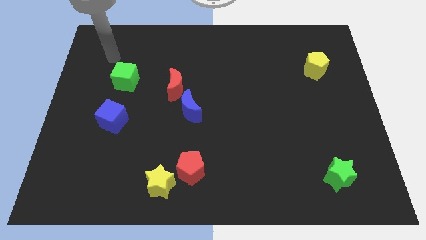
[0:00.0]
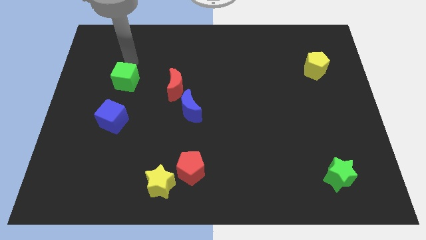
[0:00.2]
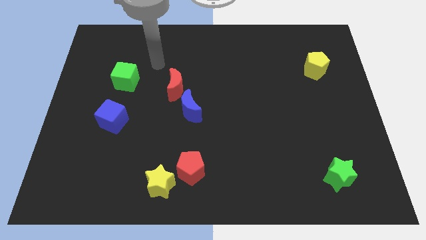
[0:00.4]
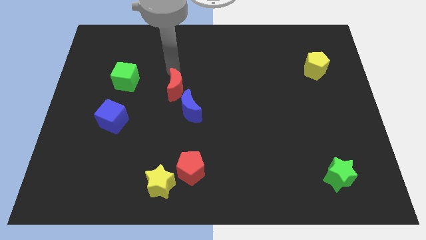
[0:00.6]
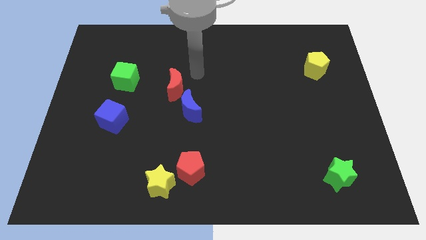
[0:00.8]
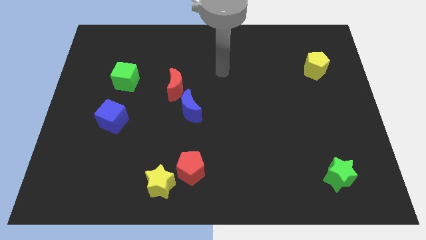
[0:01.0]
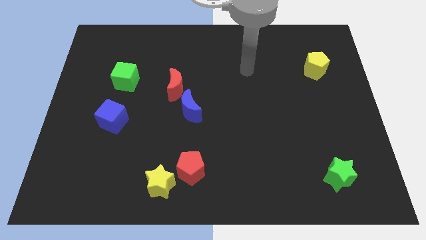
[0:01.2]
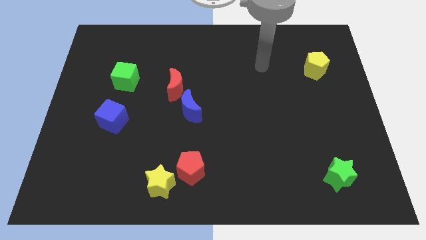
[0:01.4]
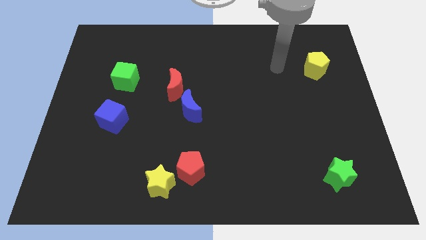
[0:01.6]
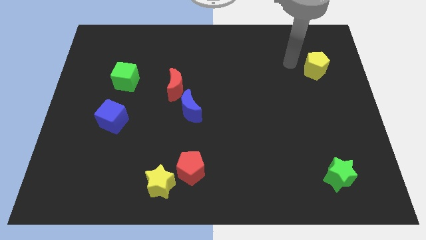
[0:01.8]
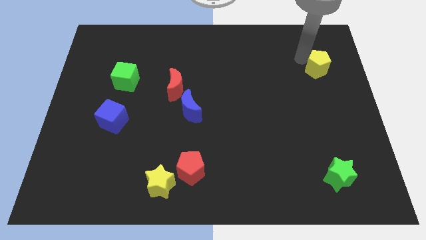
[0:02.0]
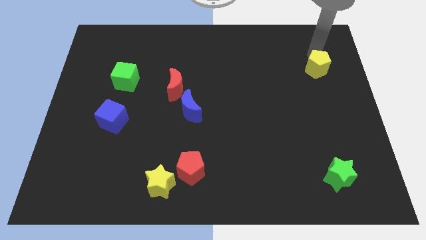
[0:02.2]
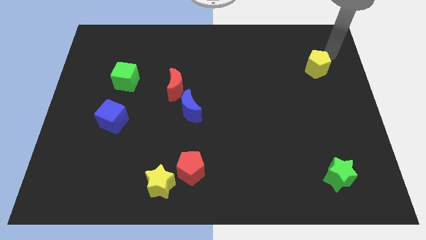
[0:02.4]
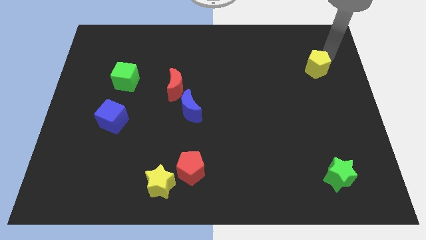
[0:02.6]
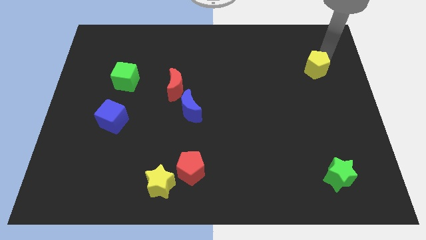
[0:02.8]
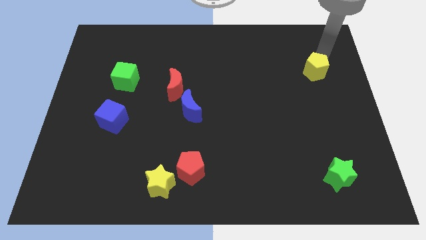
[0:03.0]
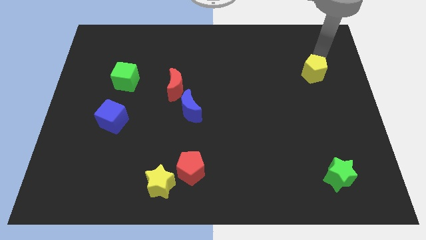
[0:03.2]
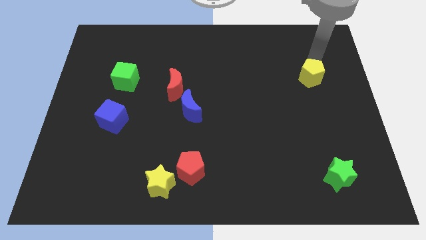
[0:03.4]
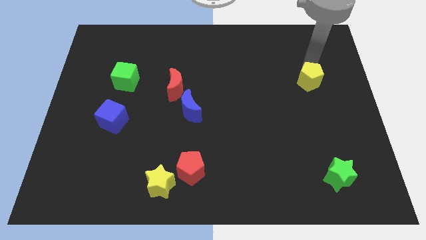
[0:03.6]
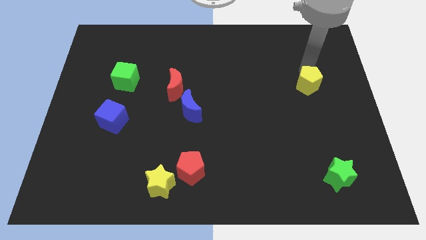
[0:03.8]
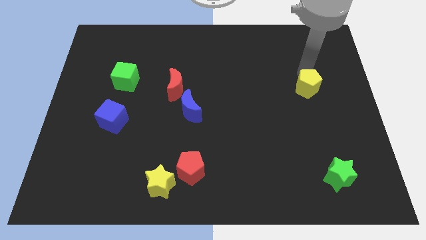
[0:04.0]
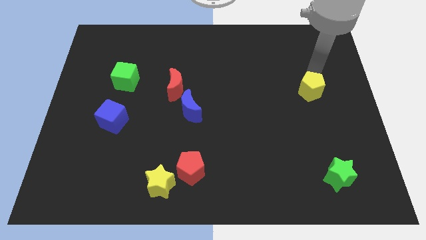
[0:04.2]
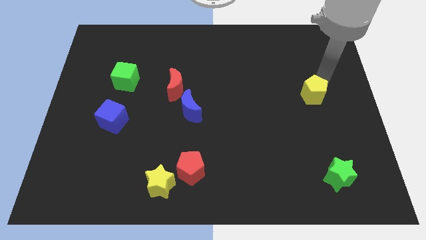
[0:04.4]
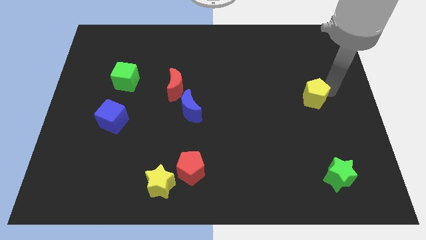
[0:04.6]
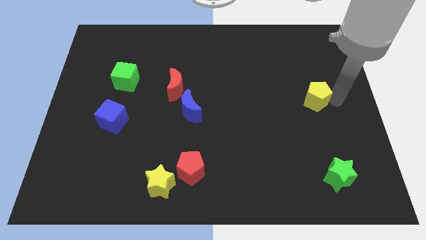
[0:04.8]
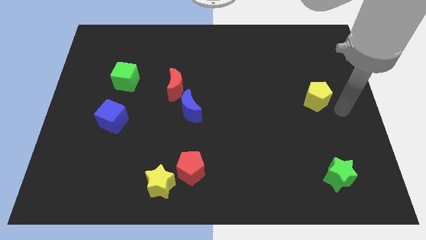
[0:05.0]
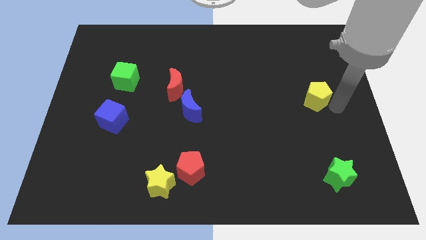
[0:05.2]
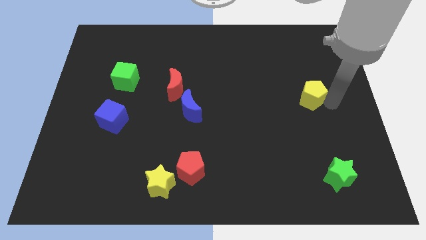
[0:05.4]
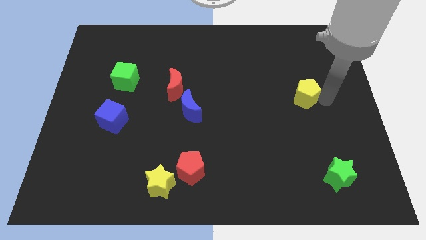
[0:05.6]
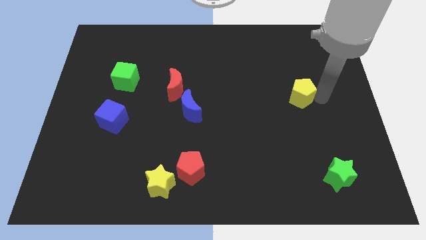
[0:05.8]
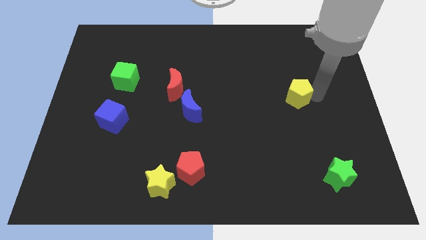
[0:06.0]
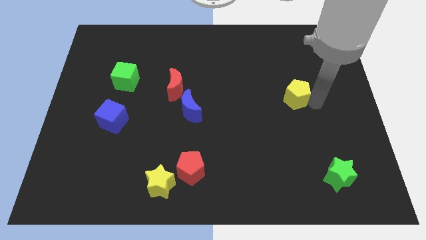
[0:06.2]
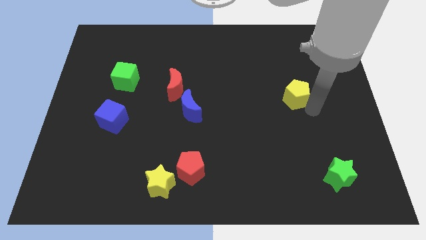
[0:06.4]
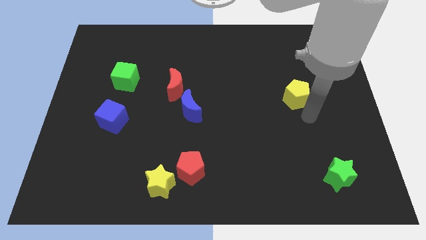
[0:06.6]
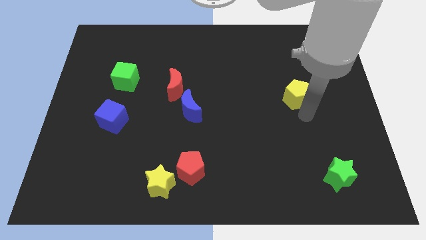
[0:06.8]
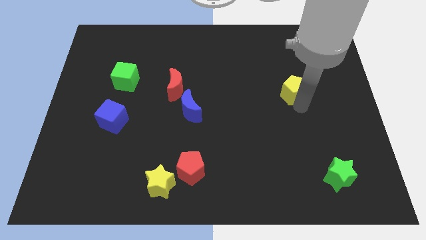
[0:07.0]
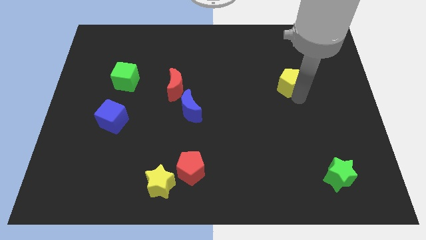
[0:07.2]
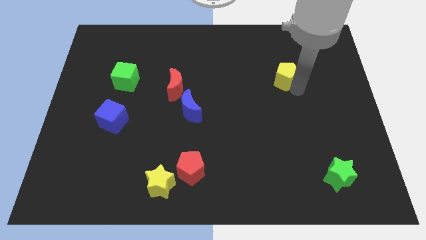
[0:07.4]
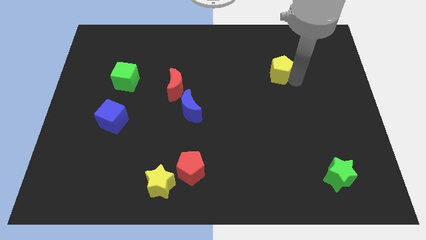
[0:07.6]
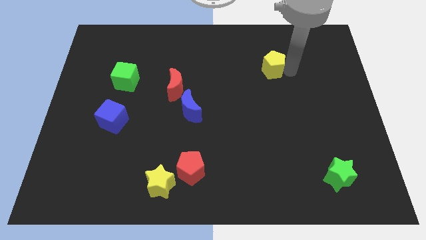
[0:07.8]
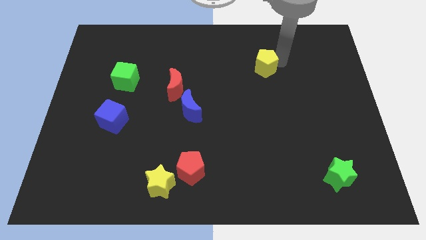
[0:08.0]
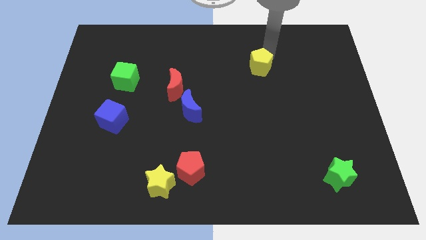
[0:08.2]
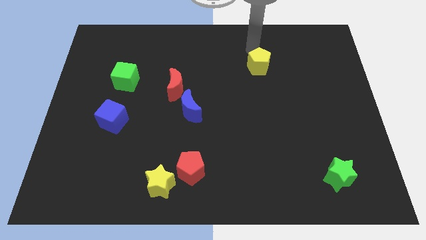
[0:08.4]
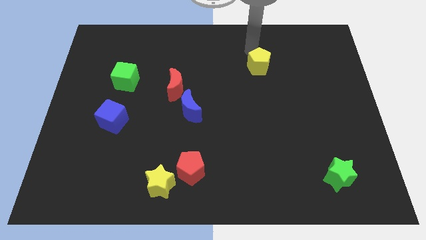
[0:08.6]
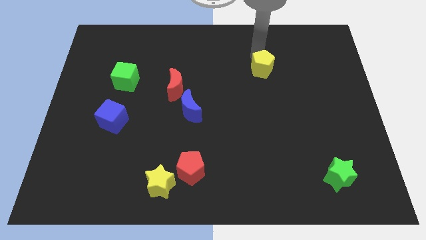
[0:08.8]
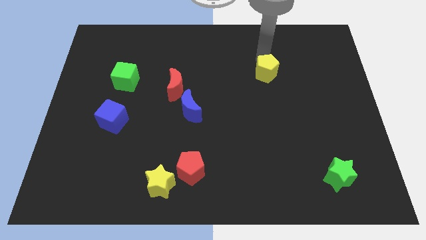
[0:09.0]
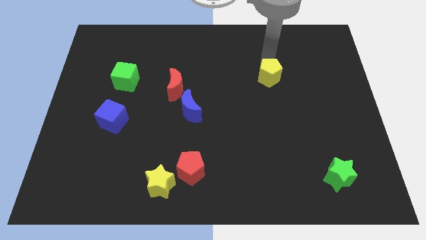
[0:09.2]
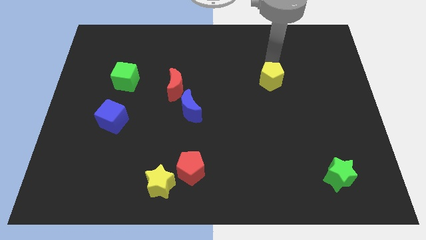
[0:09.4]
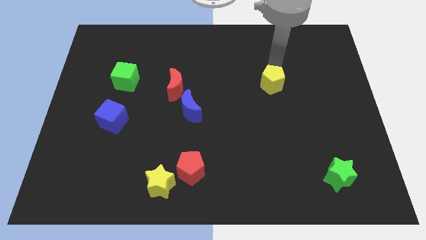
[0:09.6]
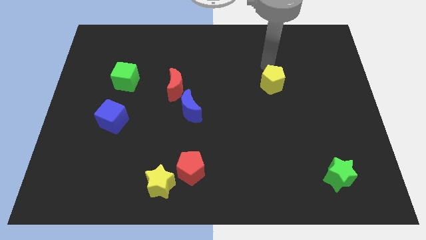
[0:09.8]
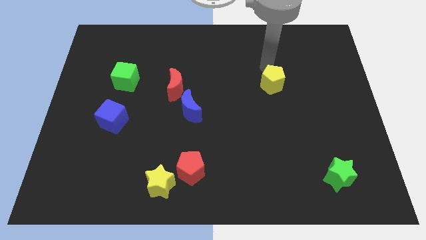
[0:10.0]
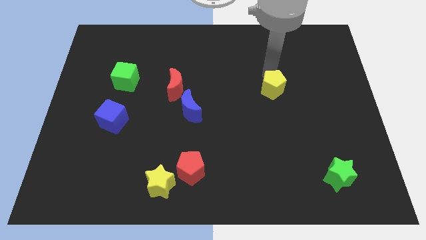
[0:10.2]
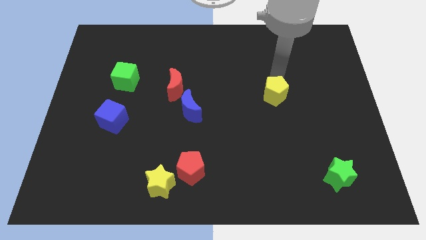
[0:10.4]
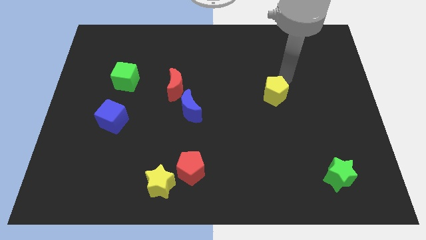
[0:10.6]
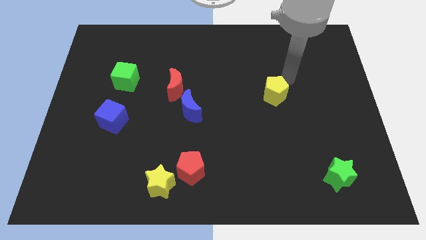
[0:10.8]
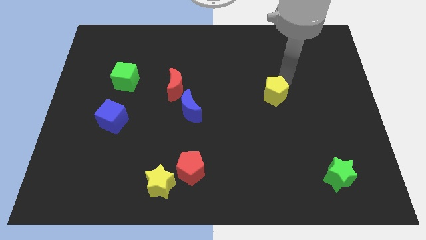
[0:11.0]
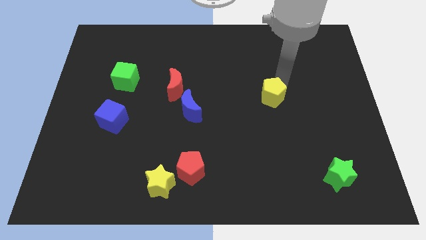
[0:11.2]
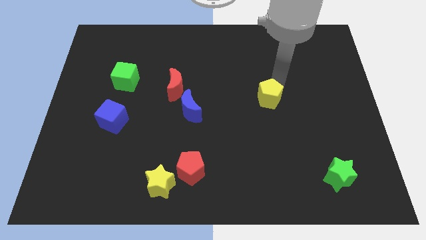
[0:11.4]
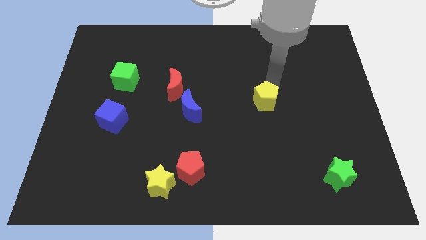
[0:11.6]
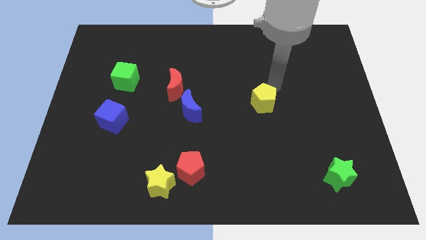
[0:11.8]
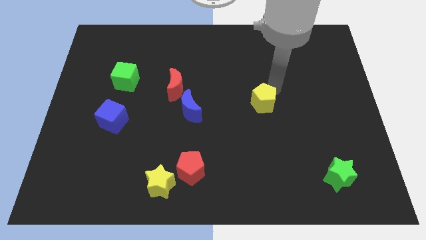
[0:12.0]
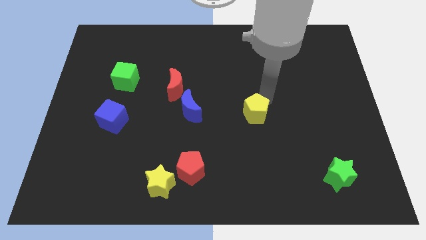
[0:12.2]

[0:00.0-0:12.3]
push the yellow pentagon down and left diagonally

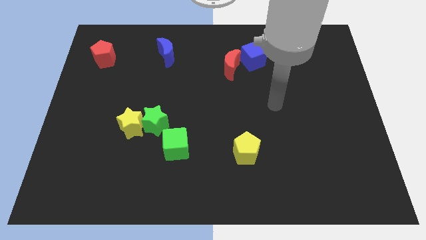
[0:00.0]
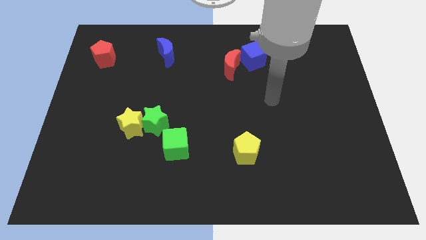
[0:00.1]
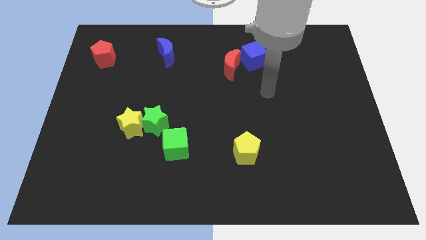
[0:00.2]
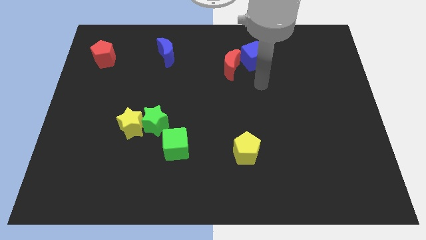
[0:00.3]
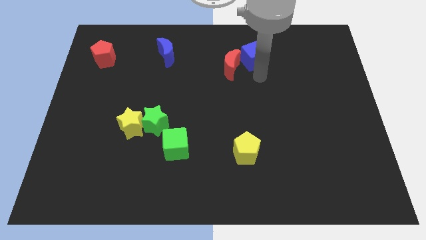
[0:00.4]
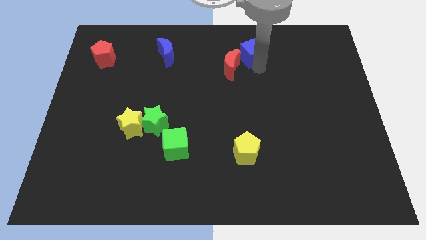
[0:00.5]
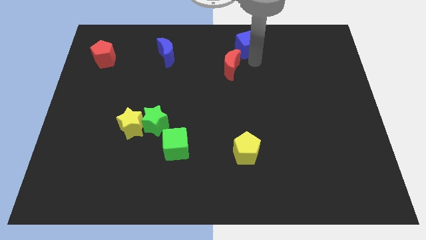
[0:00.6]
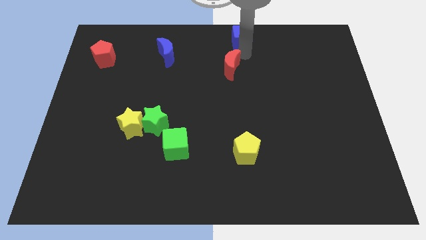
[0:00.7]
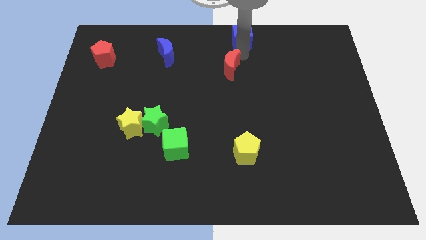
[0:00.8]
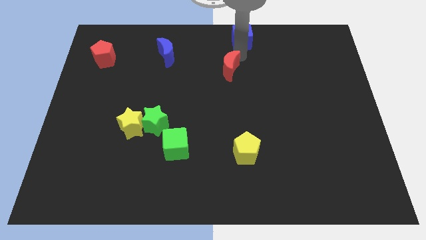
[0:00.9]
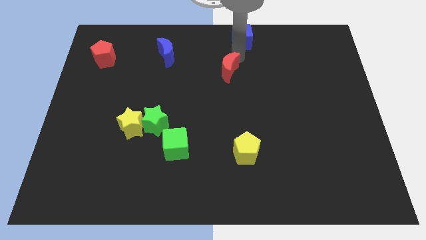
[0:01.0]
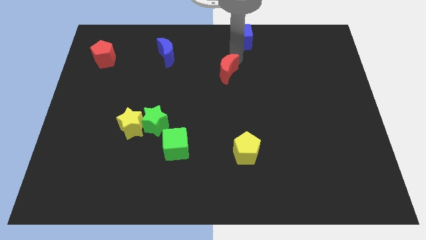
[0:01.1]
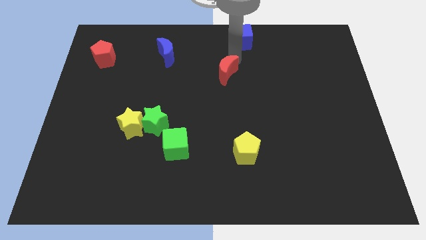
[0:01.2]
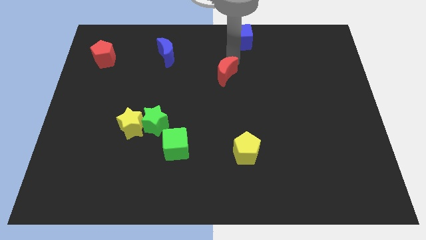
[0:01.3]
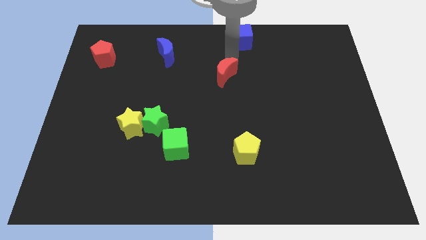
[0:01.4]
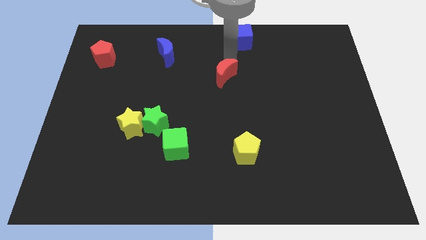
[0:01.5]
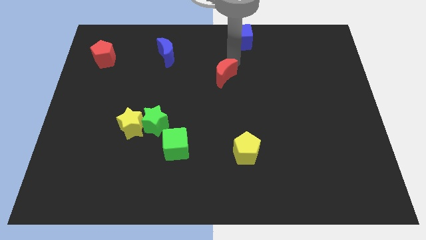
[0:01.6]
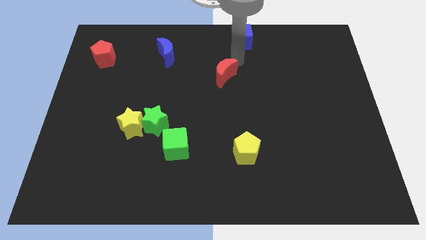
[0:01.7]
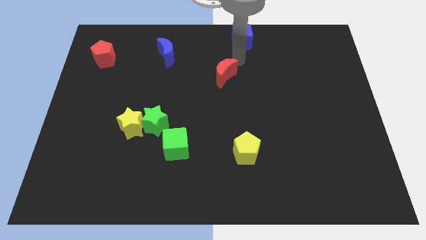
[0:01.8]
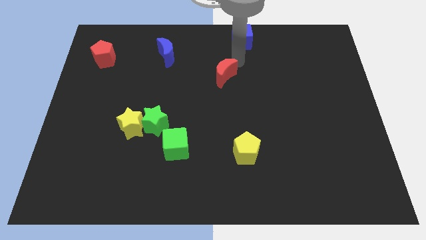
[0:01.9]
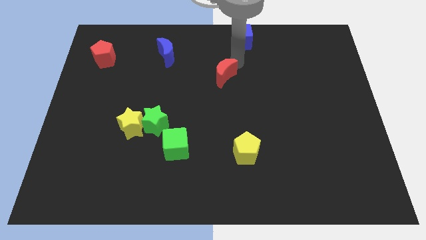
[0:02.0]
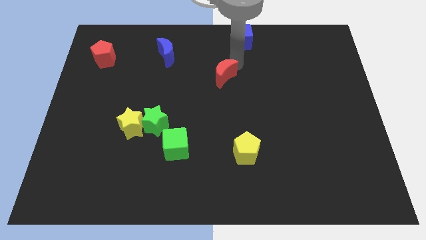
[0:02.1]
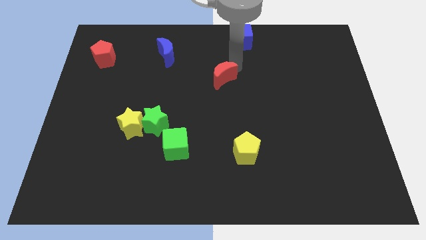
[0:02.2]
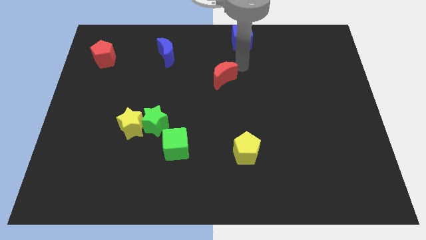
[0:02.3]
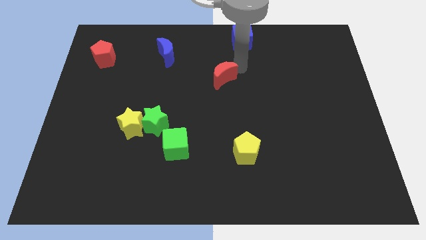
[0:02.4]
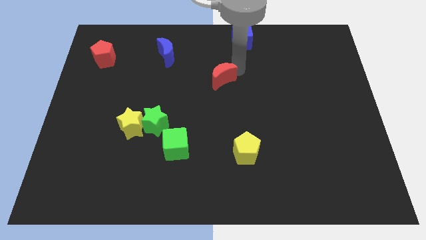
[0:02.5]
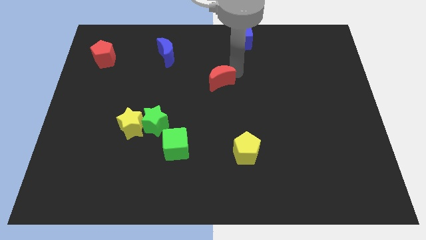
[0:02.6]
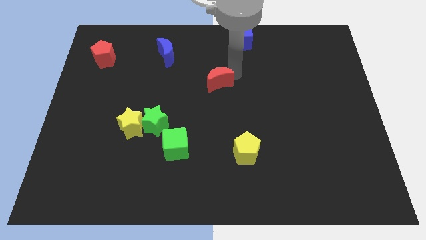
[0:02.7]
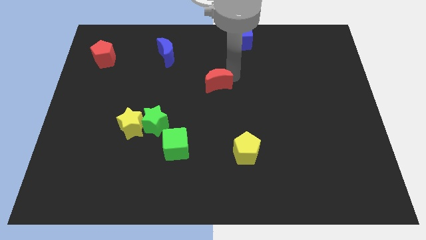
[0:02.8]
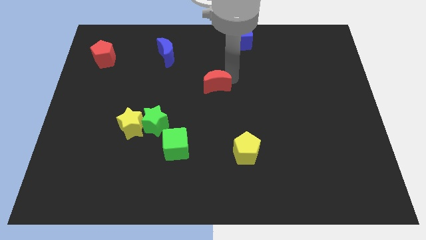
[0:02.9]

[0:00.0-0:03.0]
push the red moon slightly downwards and then to the left
